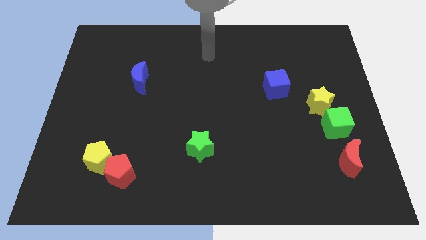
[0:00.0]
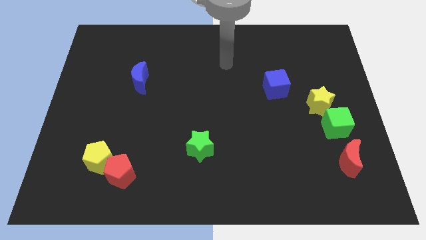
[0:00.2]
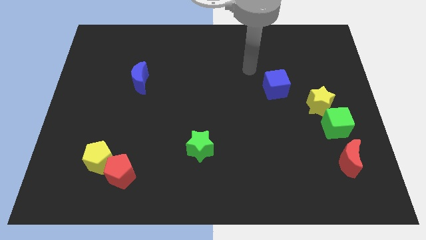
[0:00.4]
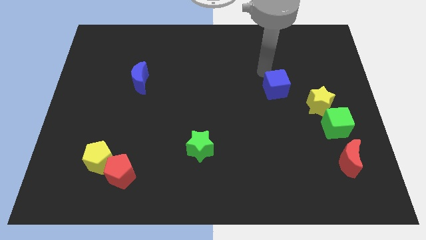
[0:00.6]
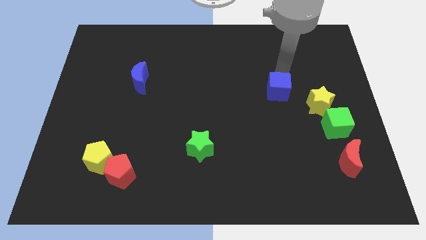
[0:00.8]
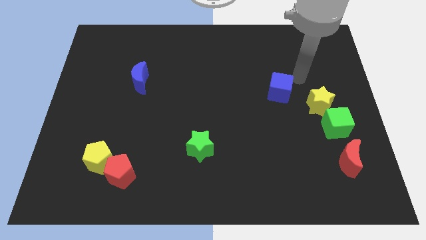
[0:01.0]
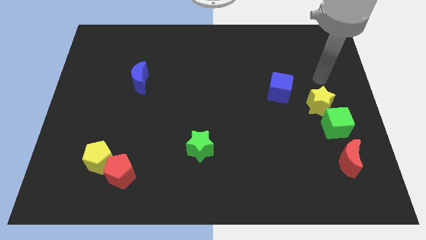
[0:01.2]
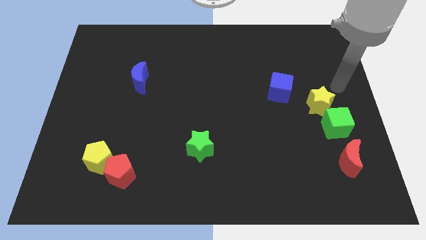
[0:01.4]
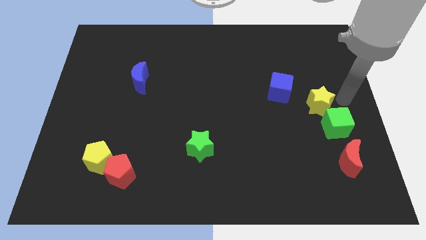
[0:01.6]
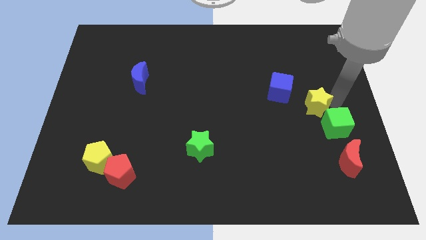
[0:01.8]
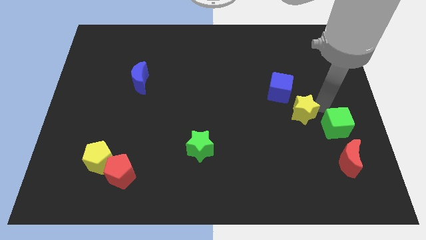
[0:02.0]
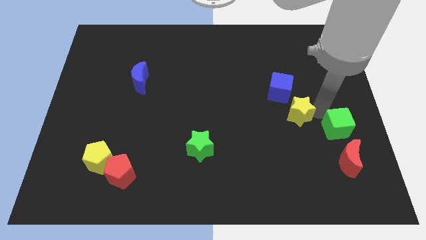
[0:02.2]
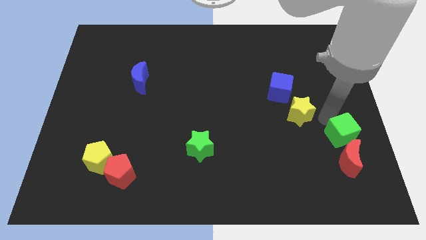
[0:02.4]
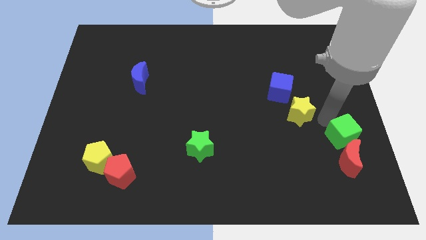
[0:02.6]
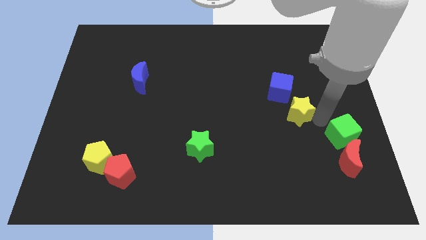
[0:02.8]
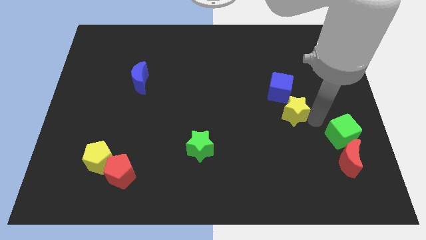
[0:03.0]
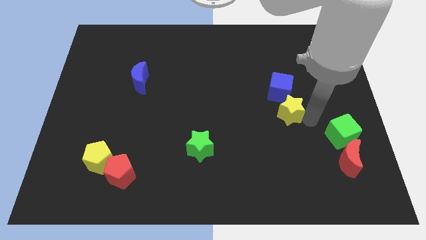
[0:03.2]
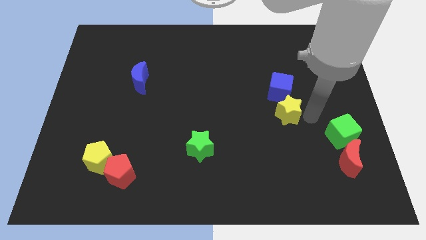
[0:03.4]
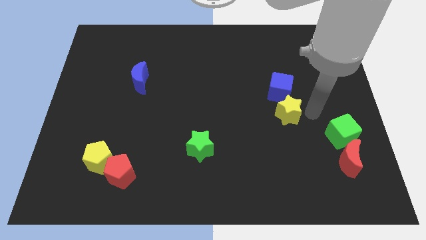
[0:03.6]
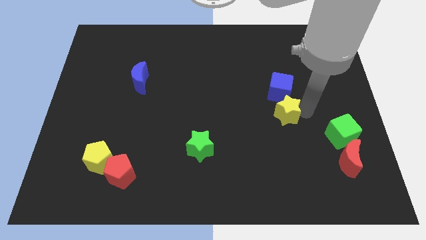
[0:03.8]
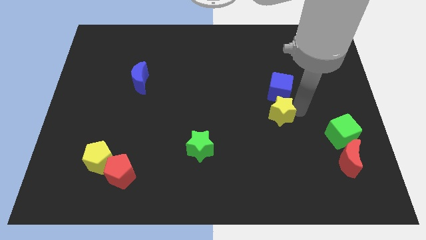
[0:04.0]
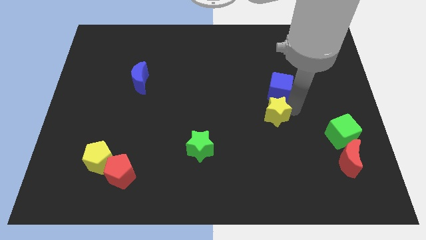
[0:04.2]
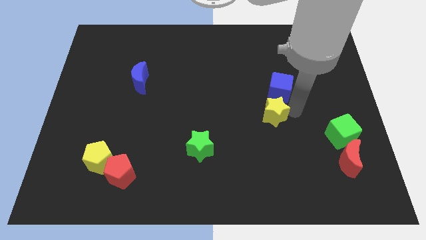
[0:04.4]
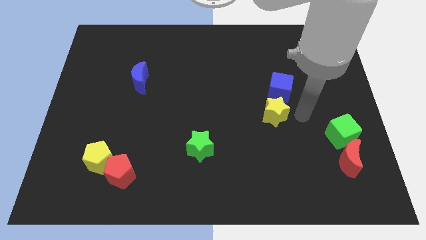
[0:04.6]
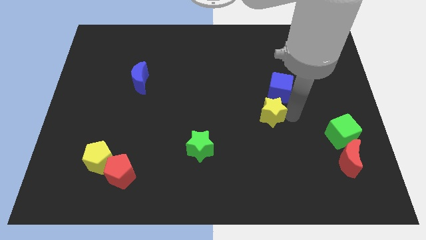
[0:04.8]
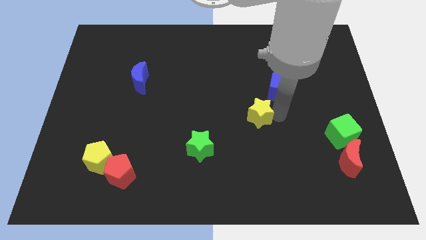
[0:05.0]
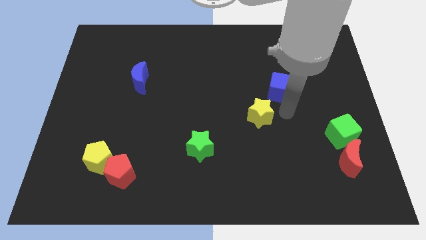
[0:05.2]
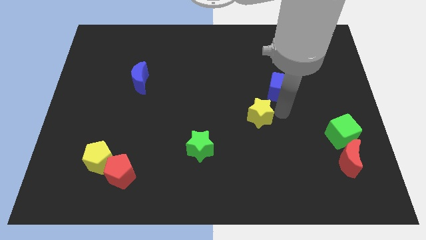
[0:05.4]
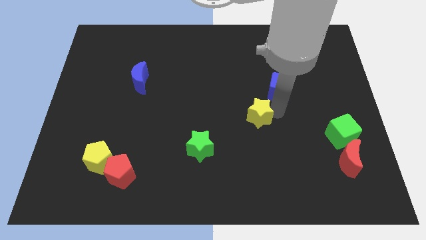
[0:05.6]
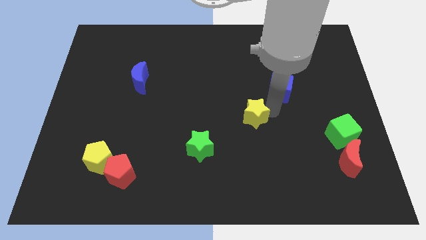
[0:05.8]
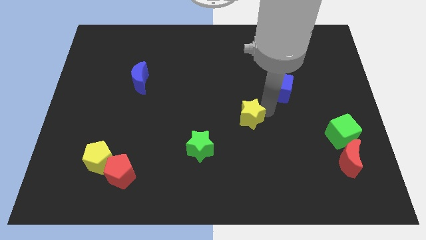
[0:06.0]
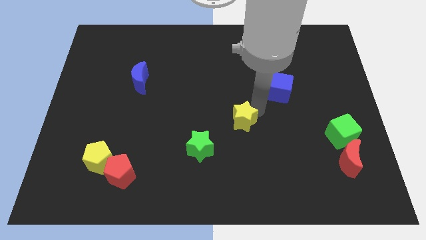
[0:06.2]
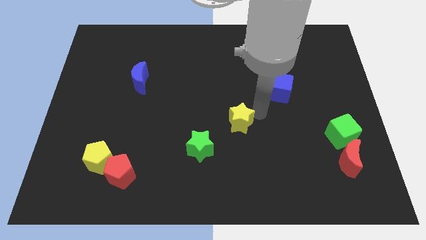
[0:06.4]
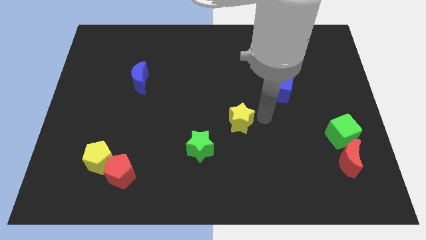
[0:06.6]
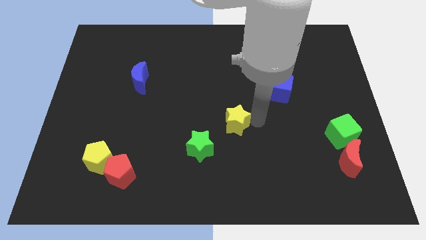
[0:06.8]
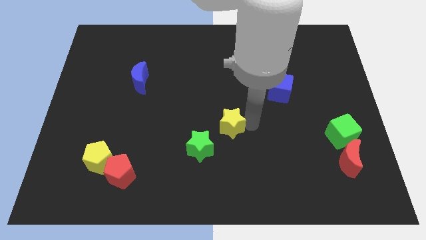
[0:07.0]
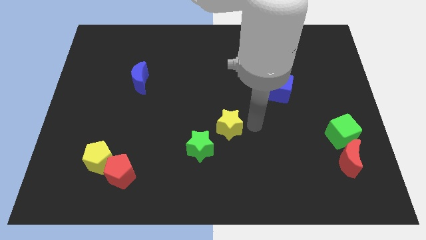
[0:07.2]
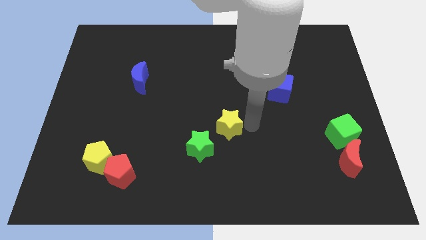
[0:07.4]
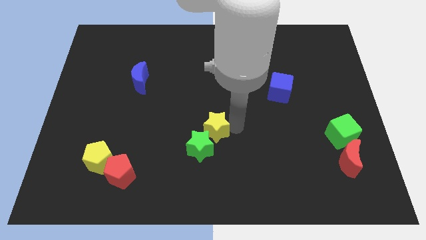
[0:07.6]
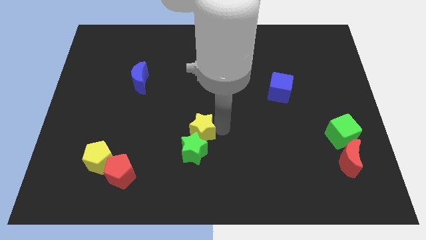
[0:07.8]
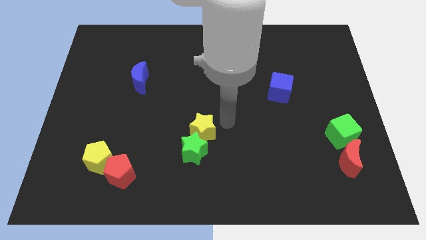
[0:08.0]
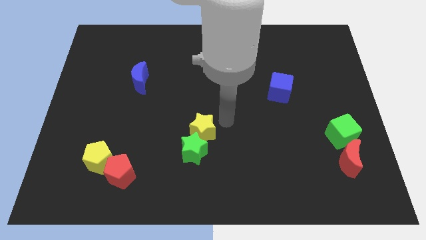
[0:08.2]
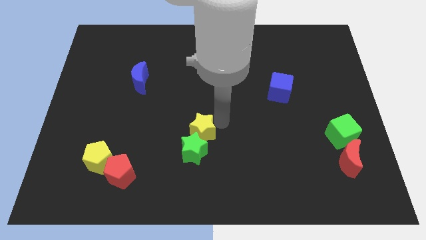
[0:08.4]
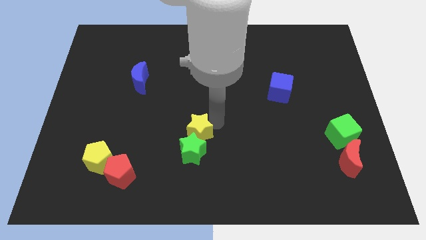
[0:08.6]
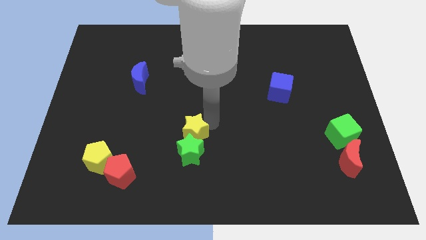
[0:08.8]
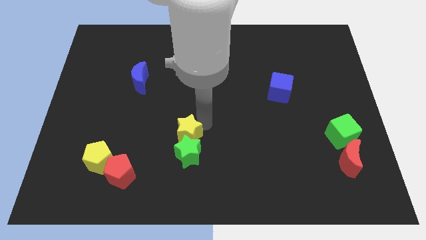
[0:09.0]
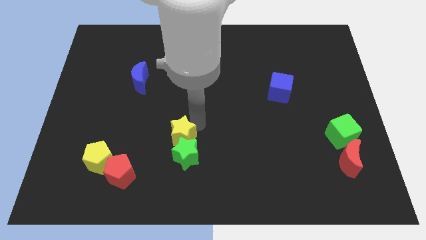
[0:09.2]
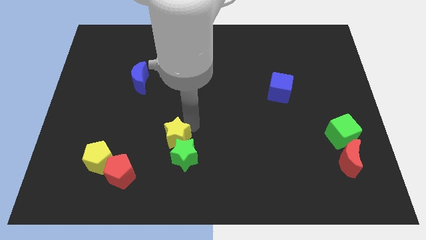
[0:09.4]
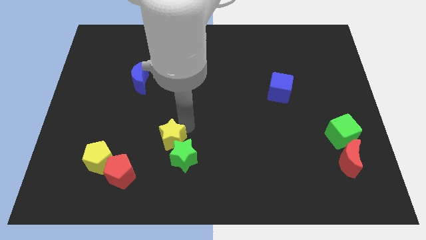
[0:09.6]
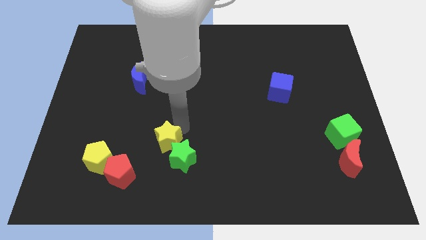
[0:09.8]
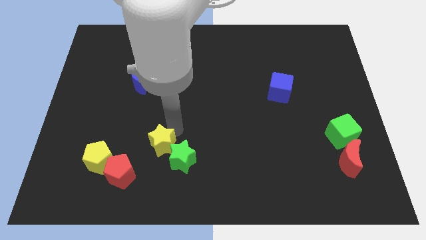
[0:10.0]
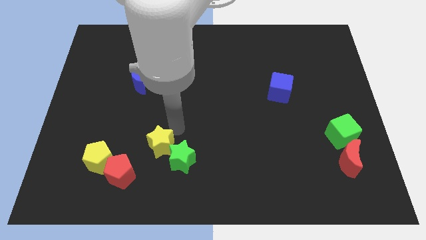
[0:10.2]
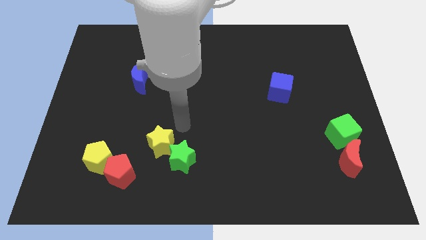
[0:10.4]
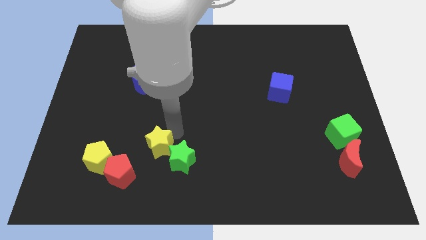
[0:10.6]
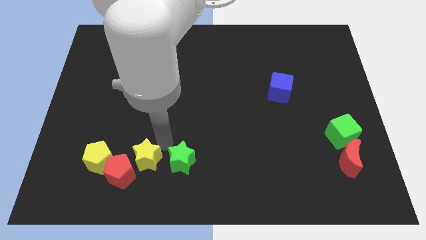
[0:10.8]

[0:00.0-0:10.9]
slide the yellow star next to the red pentagon

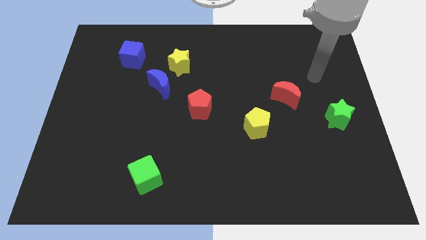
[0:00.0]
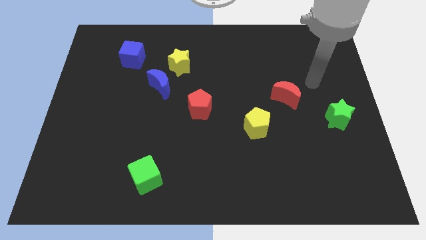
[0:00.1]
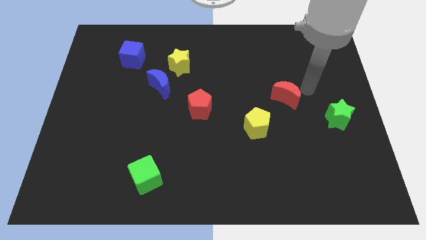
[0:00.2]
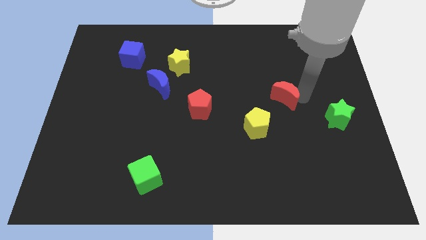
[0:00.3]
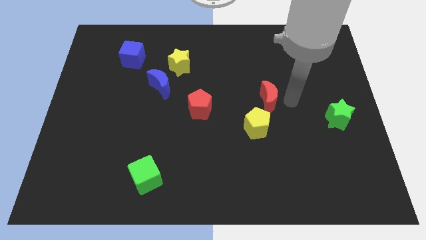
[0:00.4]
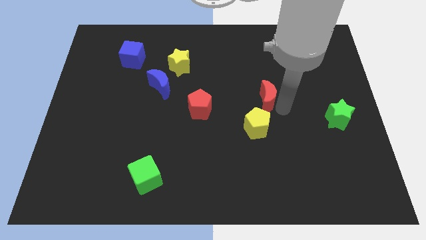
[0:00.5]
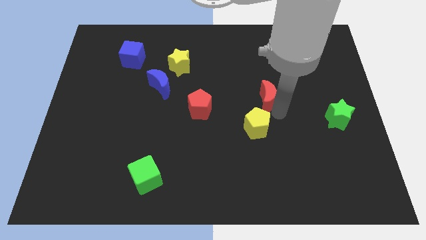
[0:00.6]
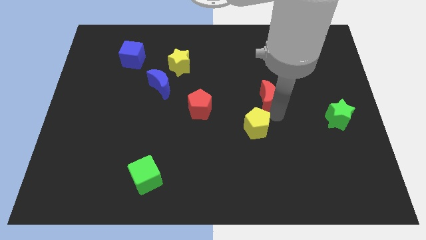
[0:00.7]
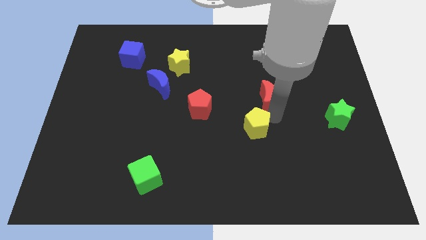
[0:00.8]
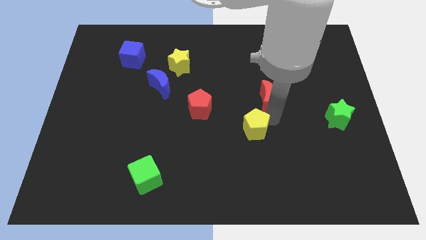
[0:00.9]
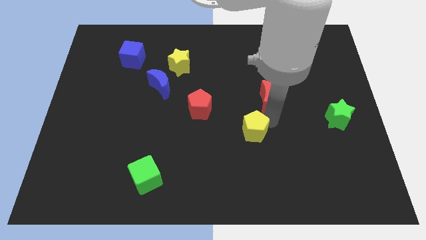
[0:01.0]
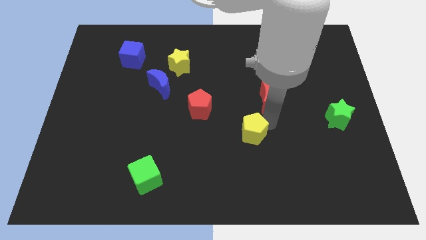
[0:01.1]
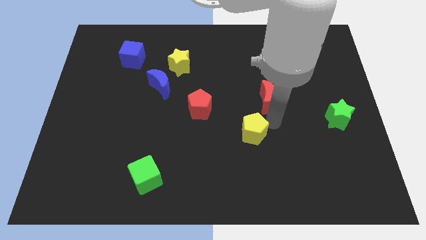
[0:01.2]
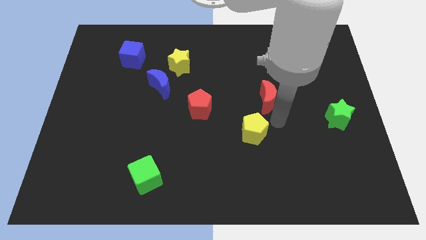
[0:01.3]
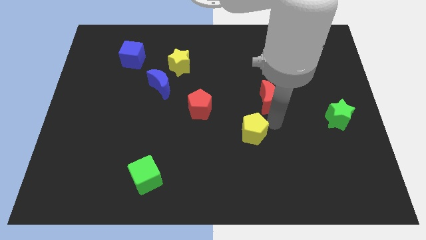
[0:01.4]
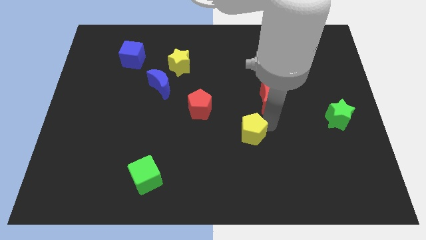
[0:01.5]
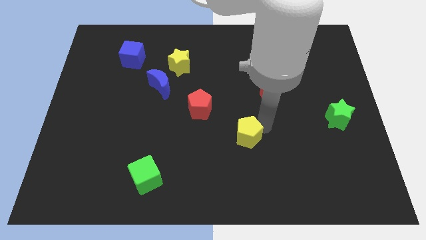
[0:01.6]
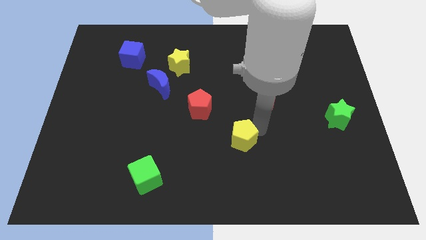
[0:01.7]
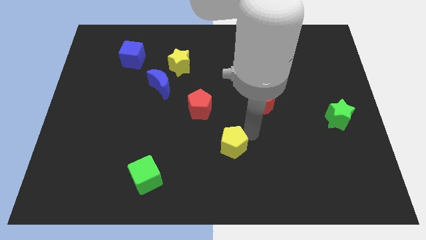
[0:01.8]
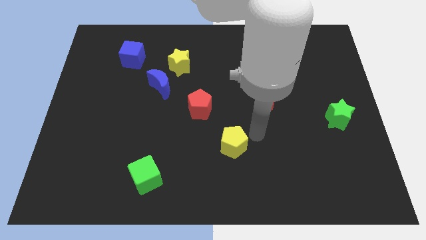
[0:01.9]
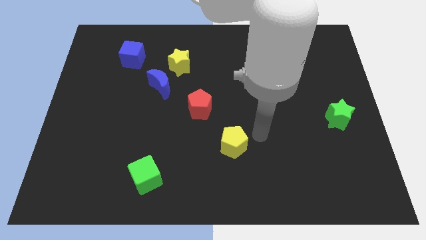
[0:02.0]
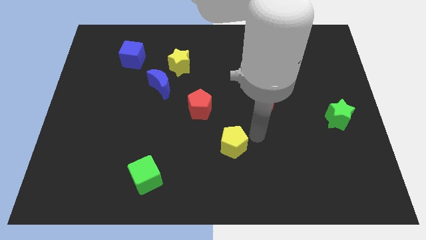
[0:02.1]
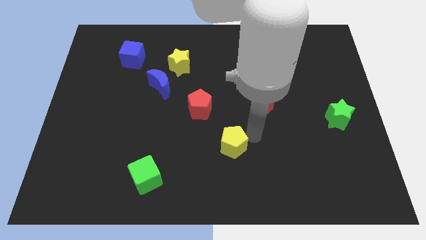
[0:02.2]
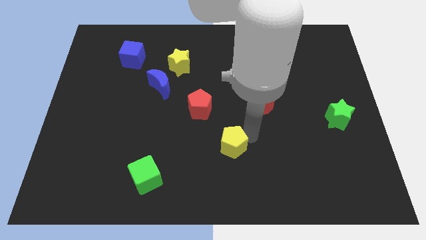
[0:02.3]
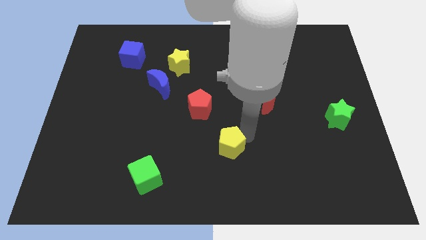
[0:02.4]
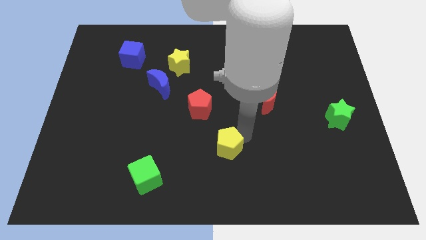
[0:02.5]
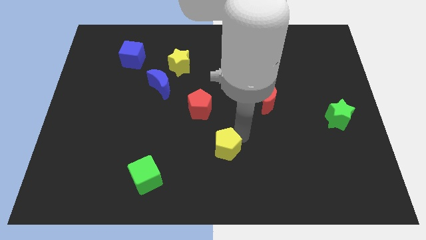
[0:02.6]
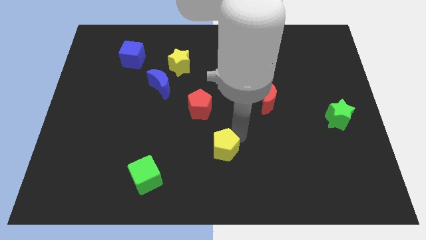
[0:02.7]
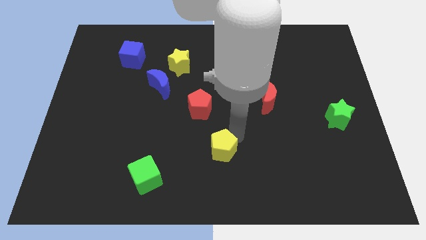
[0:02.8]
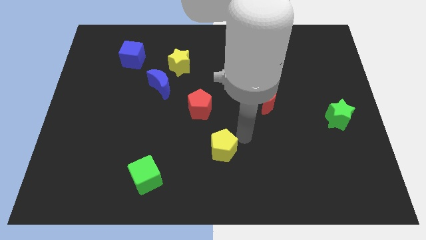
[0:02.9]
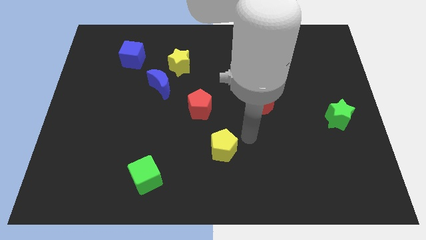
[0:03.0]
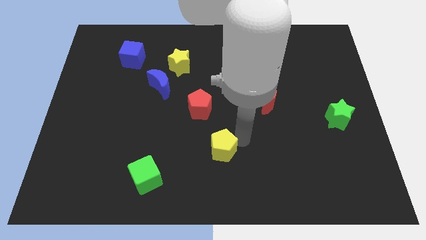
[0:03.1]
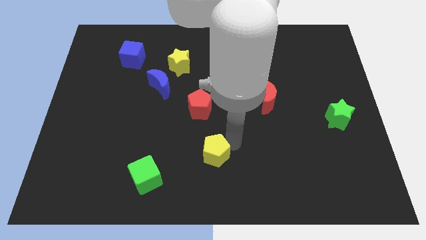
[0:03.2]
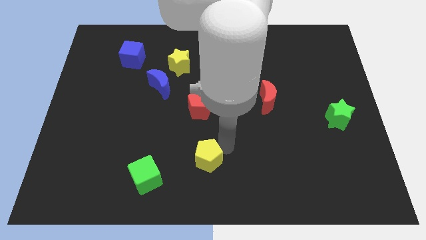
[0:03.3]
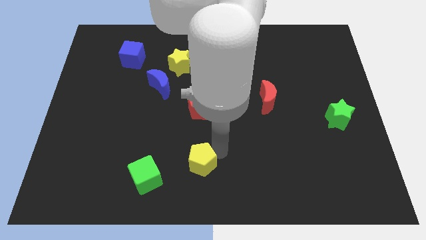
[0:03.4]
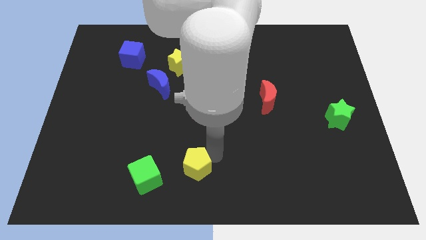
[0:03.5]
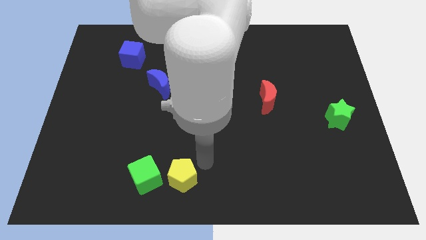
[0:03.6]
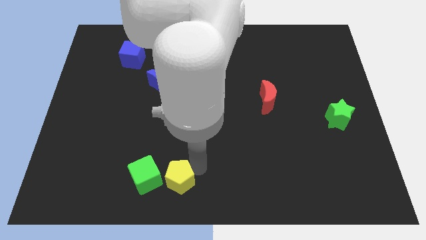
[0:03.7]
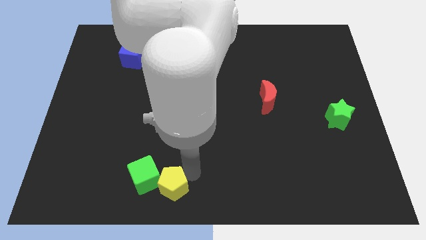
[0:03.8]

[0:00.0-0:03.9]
move the yellow pentagon next to the green cube
